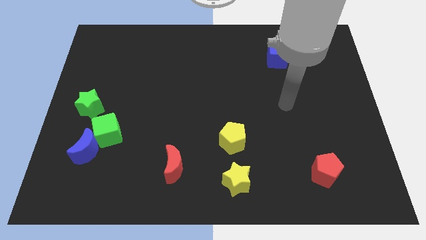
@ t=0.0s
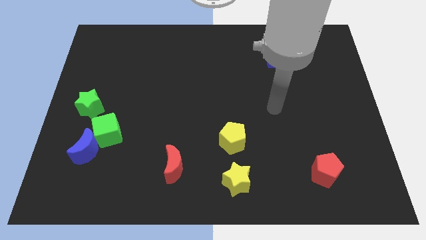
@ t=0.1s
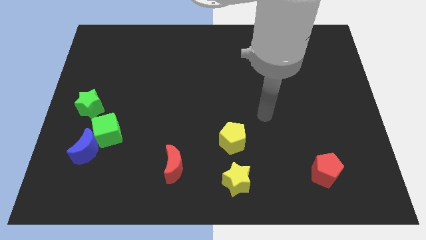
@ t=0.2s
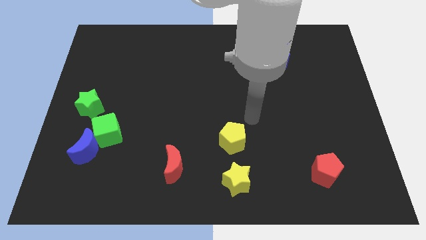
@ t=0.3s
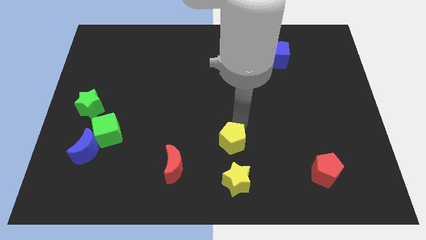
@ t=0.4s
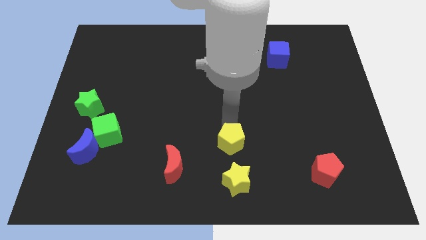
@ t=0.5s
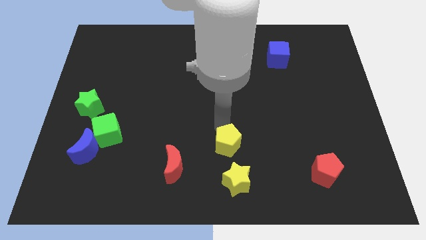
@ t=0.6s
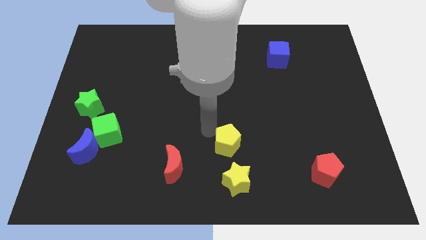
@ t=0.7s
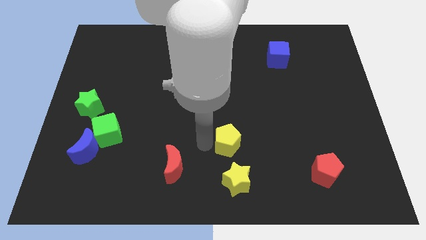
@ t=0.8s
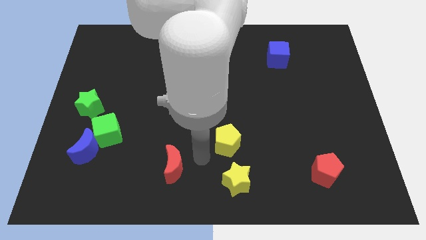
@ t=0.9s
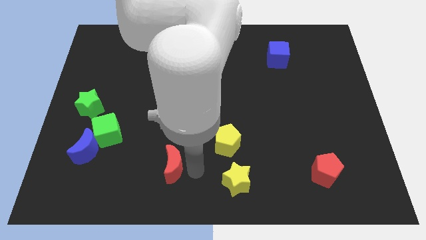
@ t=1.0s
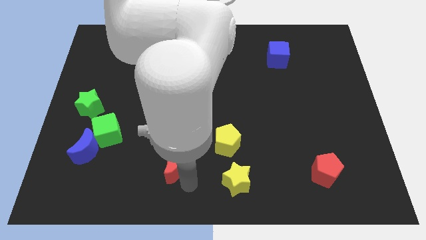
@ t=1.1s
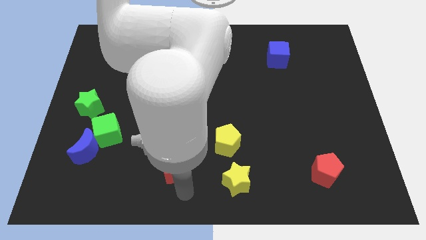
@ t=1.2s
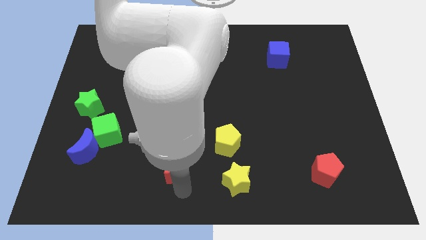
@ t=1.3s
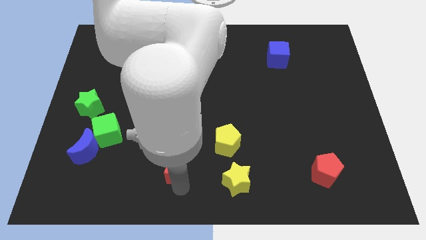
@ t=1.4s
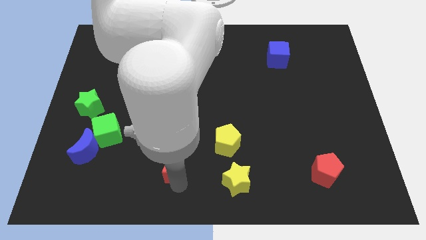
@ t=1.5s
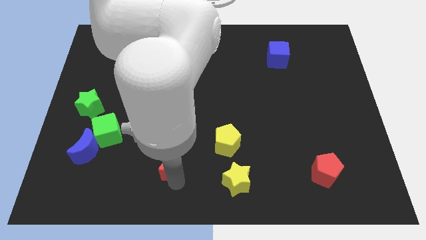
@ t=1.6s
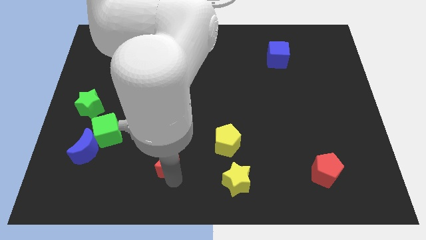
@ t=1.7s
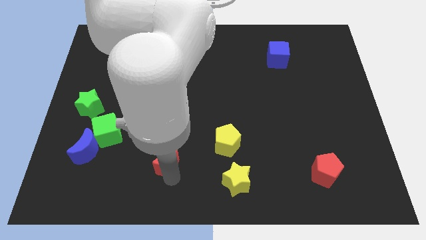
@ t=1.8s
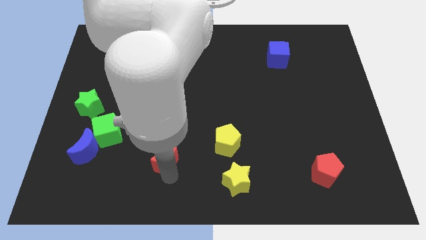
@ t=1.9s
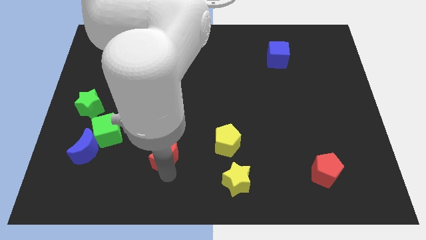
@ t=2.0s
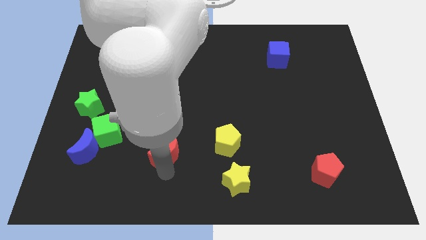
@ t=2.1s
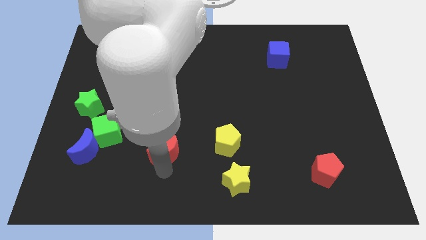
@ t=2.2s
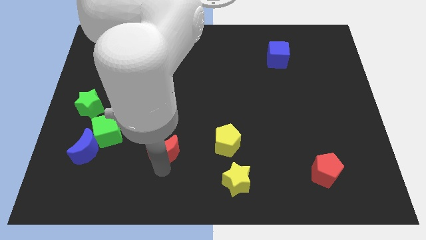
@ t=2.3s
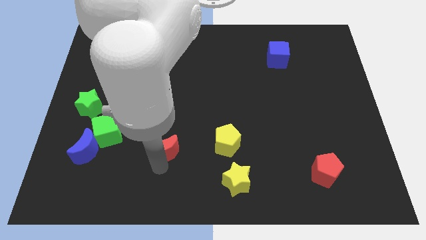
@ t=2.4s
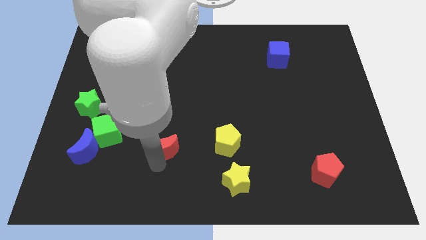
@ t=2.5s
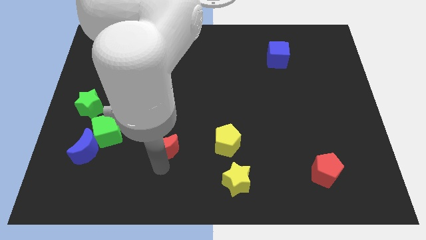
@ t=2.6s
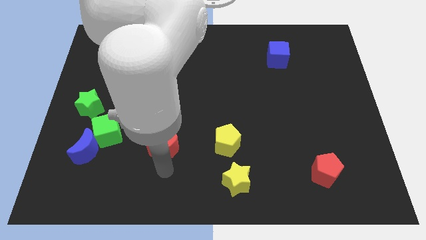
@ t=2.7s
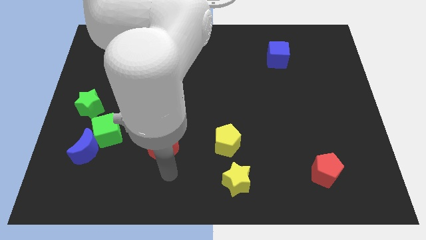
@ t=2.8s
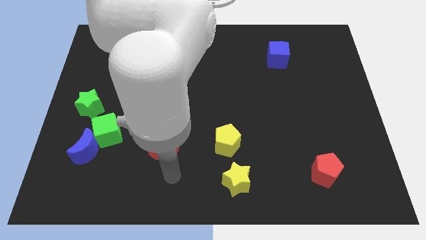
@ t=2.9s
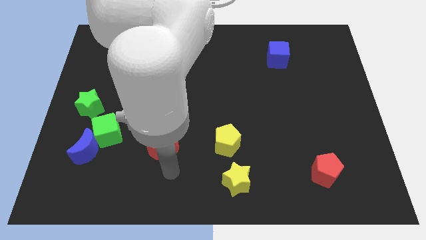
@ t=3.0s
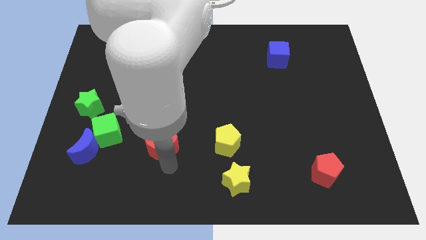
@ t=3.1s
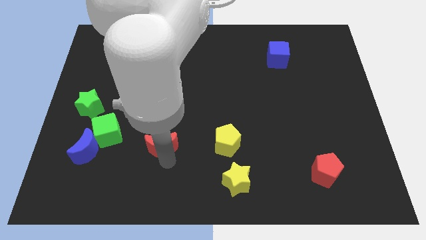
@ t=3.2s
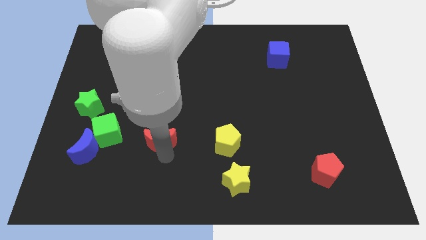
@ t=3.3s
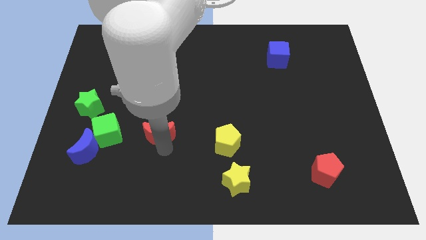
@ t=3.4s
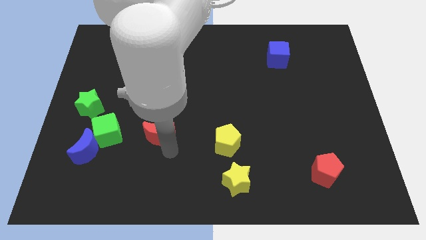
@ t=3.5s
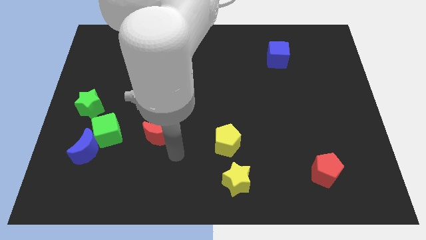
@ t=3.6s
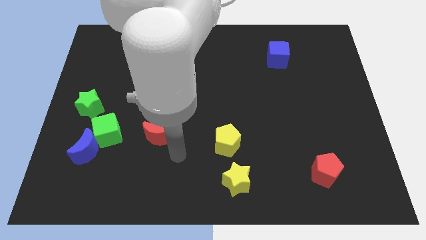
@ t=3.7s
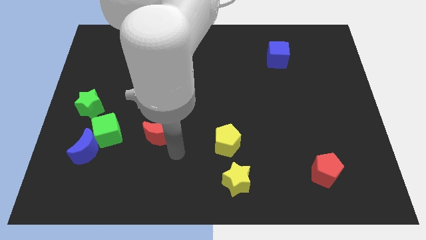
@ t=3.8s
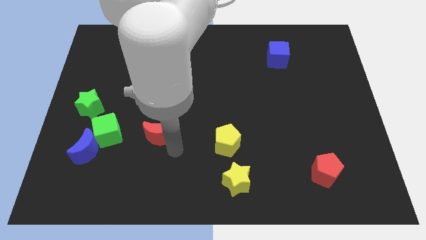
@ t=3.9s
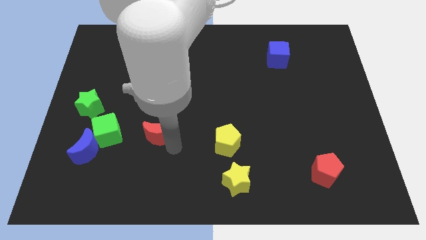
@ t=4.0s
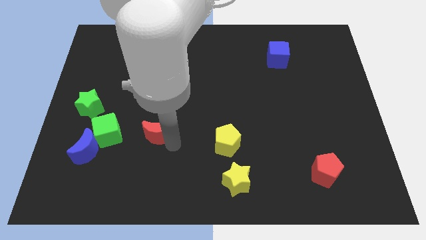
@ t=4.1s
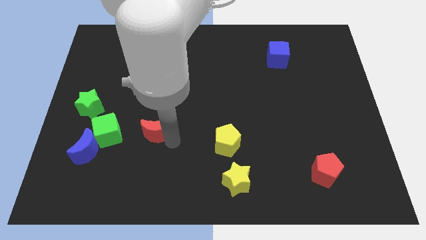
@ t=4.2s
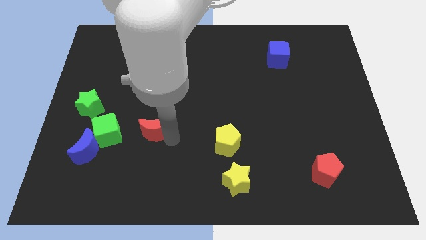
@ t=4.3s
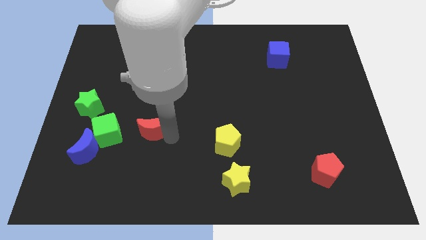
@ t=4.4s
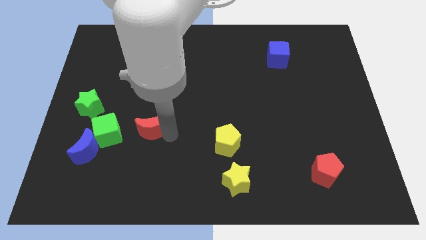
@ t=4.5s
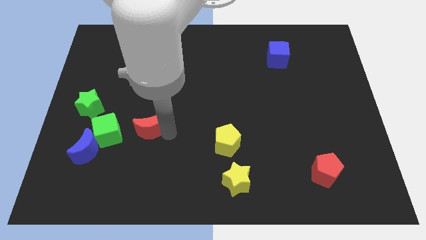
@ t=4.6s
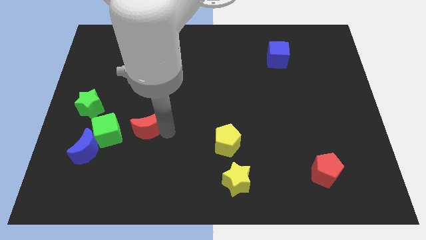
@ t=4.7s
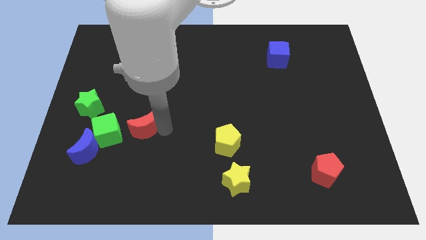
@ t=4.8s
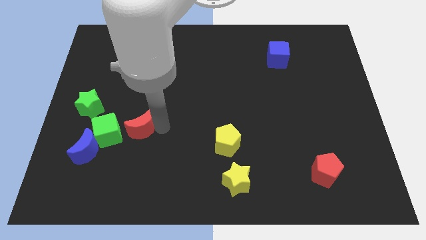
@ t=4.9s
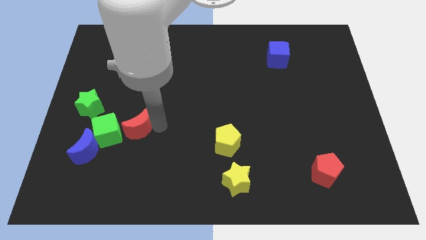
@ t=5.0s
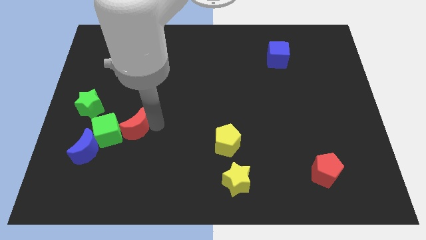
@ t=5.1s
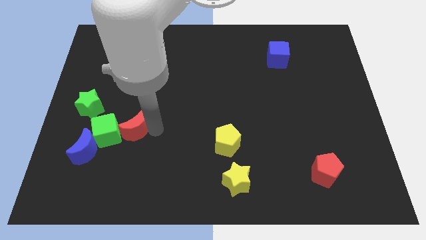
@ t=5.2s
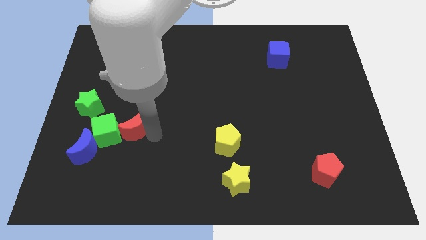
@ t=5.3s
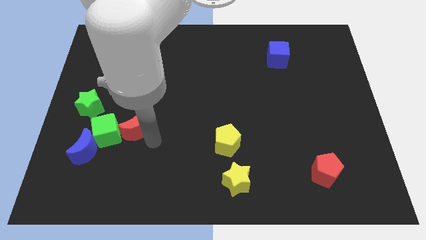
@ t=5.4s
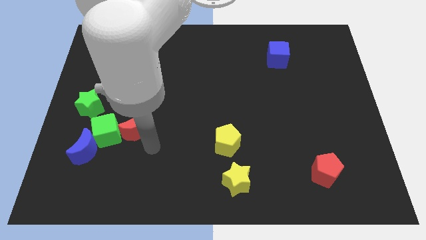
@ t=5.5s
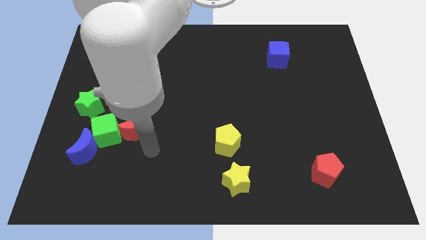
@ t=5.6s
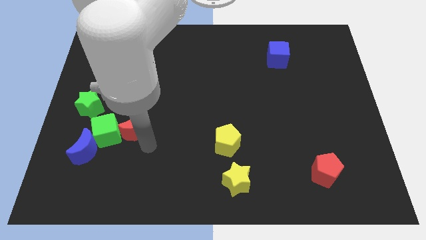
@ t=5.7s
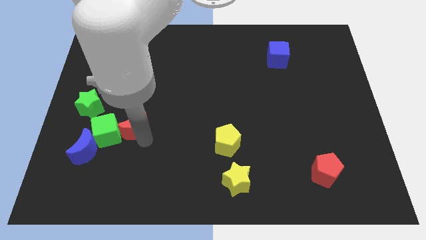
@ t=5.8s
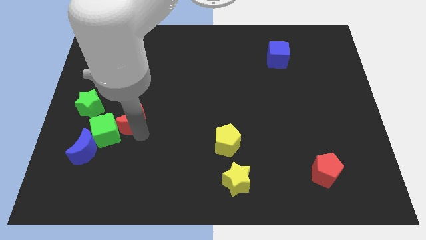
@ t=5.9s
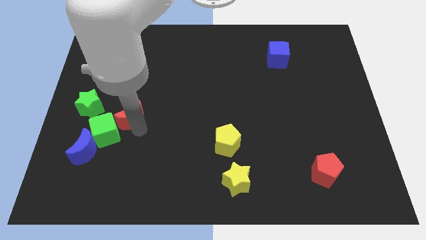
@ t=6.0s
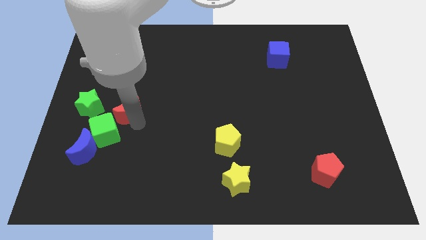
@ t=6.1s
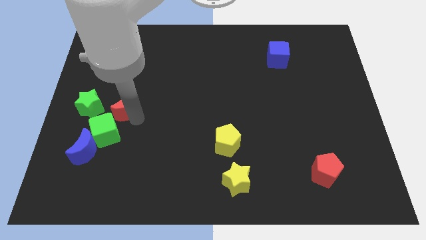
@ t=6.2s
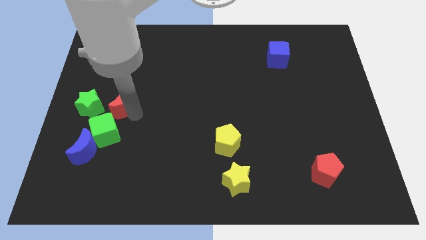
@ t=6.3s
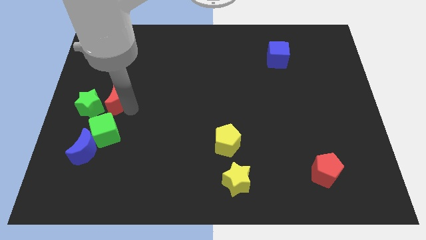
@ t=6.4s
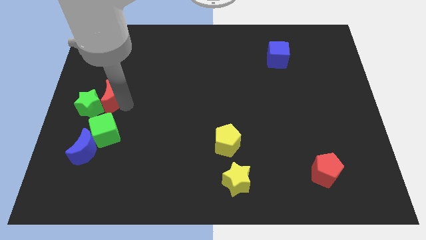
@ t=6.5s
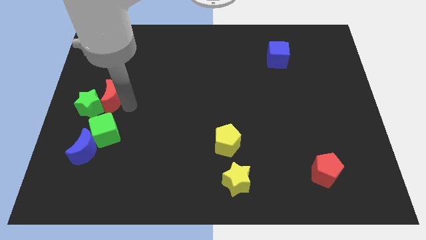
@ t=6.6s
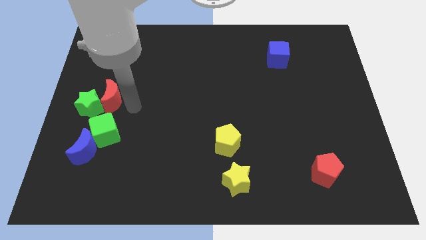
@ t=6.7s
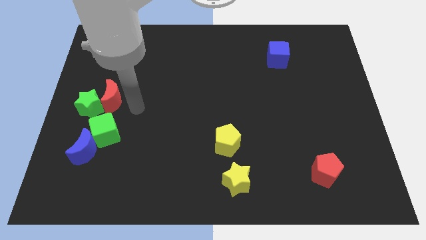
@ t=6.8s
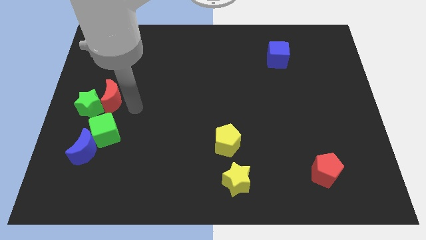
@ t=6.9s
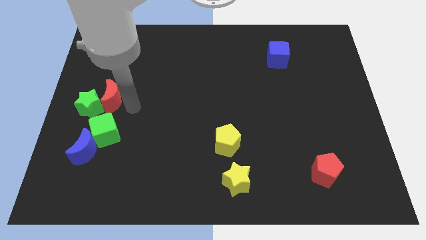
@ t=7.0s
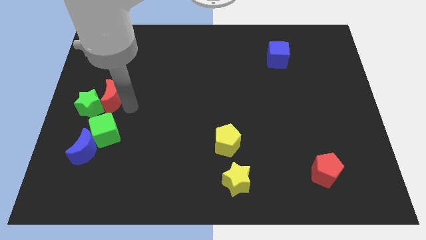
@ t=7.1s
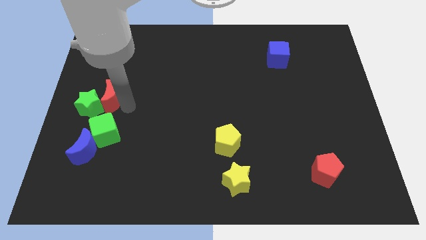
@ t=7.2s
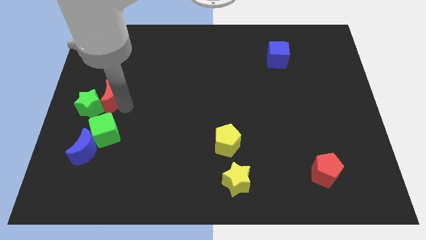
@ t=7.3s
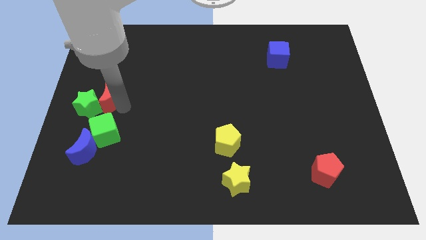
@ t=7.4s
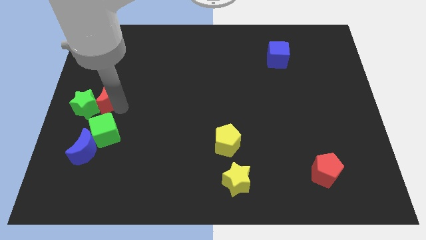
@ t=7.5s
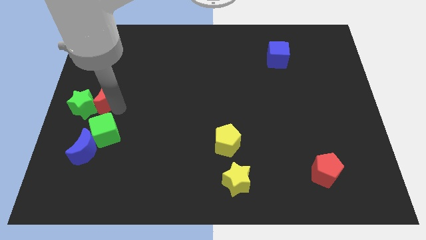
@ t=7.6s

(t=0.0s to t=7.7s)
slide the red moon to the left side of the board

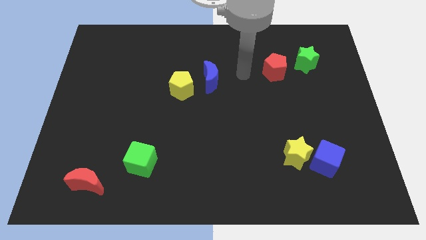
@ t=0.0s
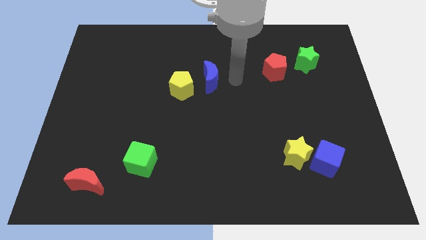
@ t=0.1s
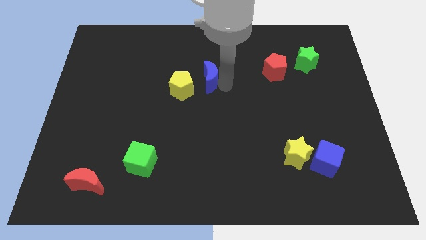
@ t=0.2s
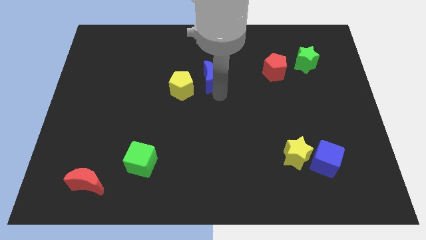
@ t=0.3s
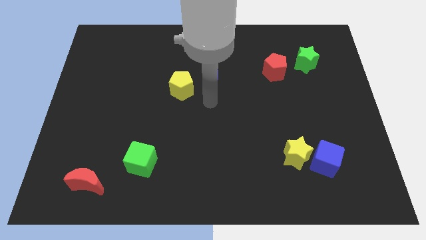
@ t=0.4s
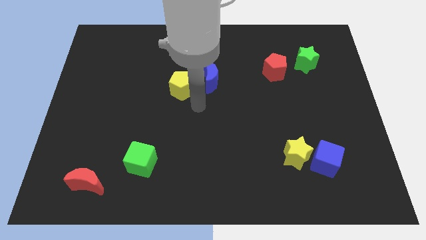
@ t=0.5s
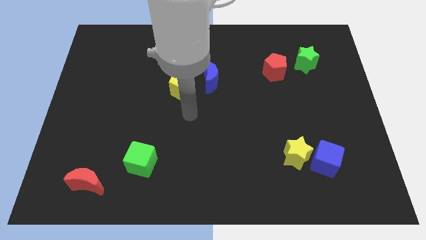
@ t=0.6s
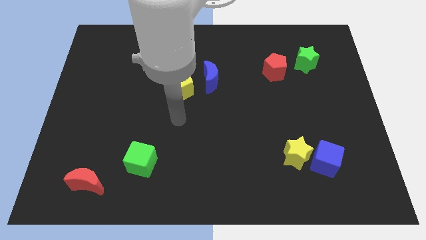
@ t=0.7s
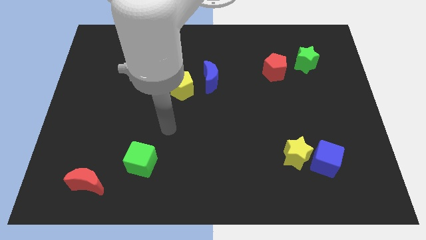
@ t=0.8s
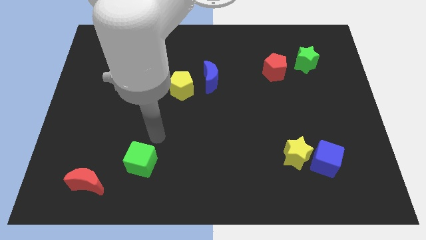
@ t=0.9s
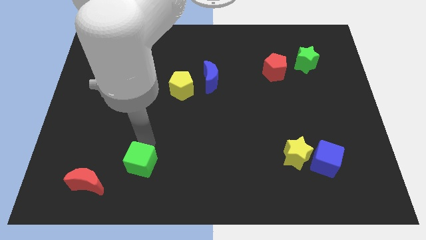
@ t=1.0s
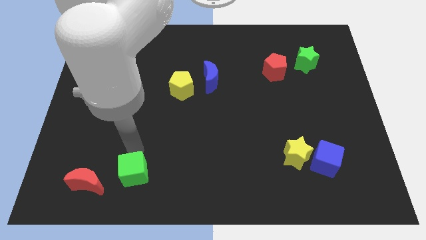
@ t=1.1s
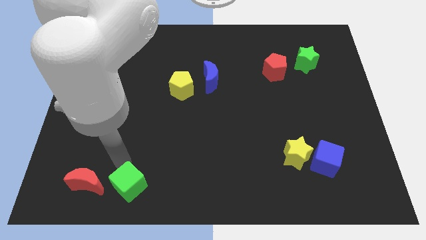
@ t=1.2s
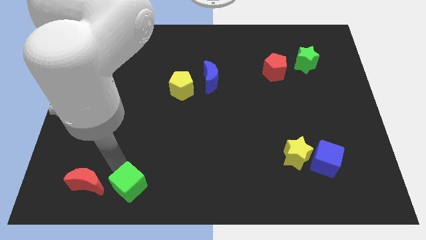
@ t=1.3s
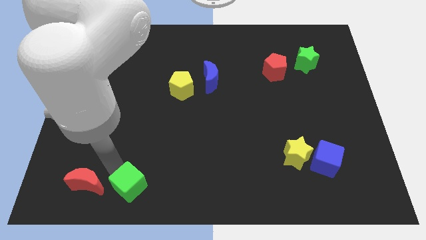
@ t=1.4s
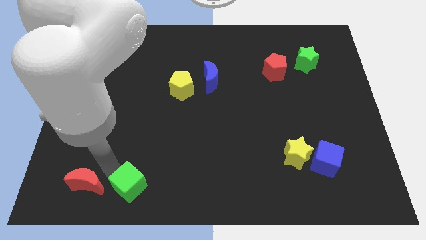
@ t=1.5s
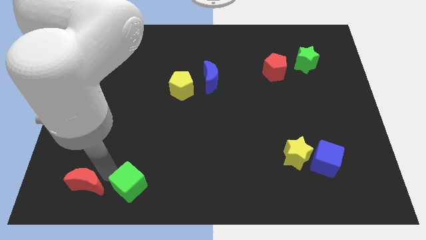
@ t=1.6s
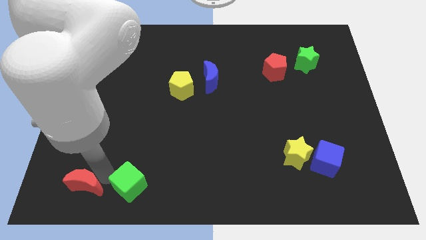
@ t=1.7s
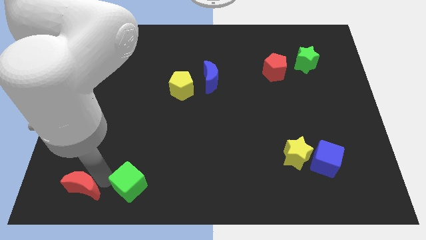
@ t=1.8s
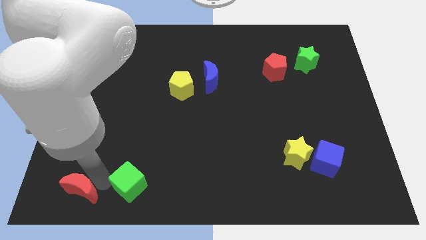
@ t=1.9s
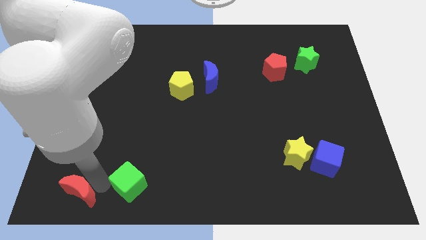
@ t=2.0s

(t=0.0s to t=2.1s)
move the red moon to the bottom left corner
